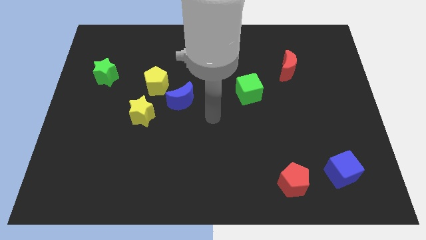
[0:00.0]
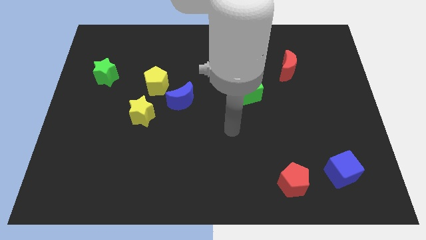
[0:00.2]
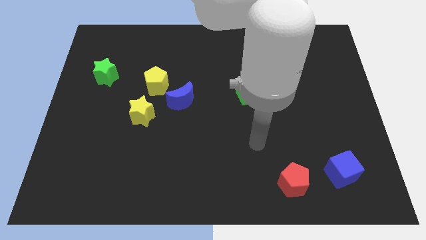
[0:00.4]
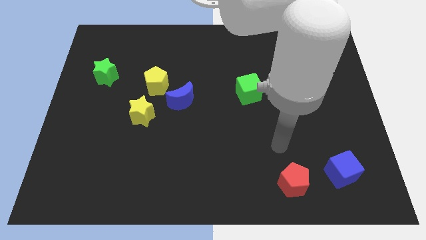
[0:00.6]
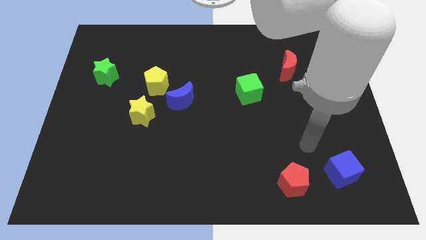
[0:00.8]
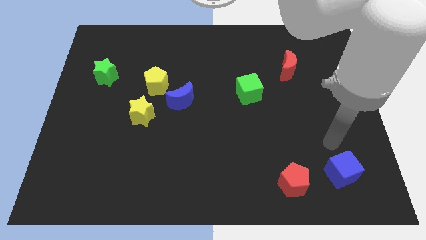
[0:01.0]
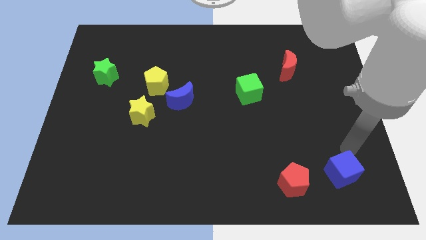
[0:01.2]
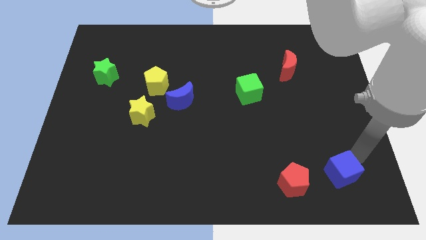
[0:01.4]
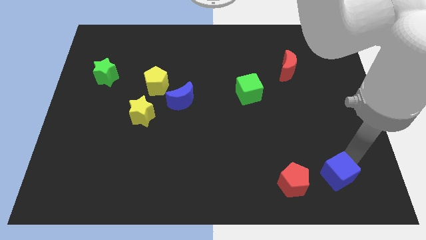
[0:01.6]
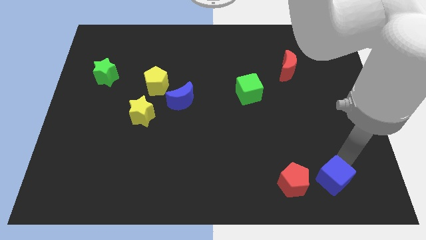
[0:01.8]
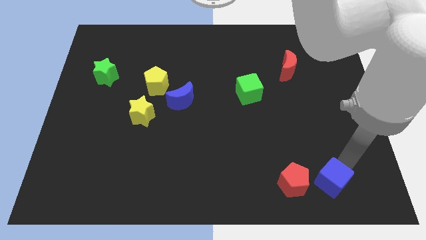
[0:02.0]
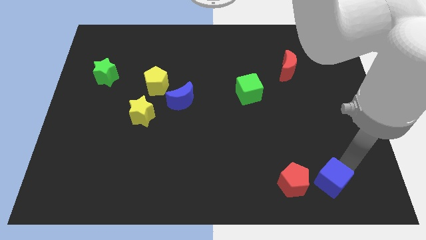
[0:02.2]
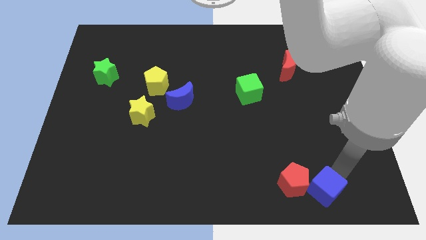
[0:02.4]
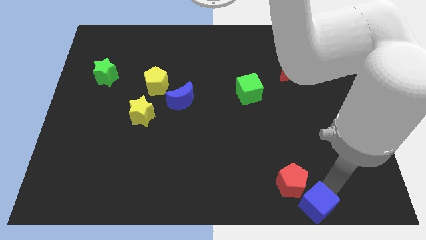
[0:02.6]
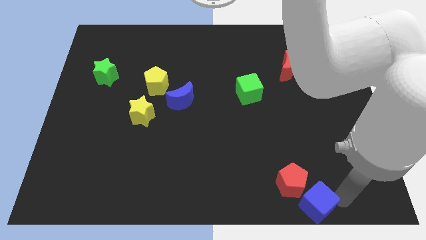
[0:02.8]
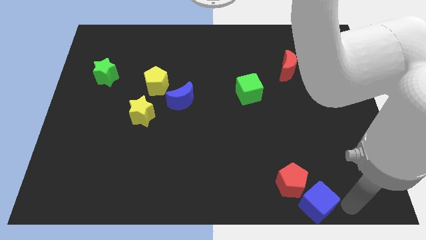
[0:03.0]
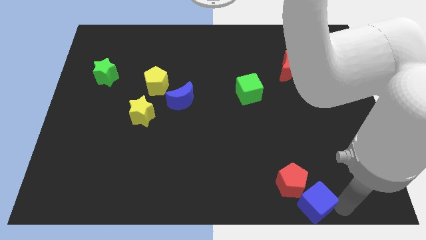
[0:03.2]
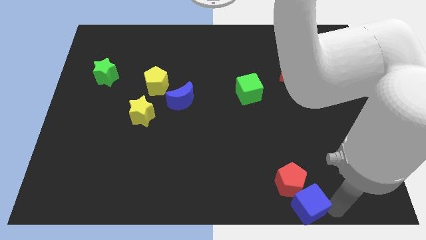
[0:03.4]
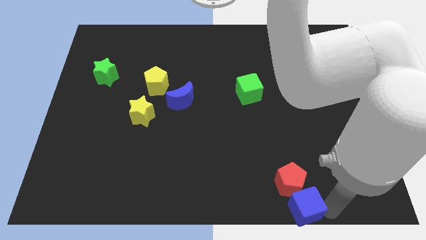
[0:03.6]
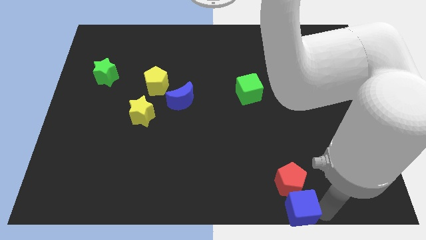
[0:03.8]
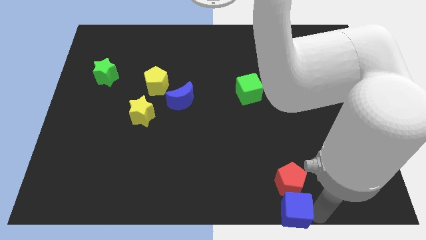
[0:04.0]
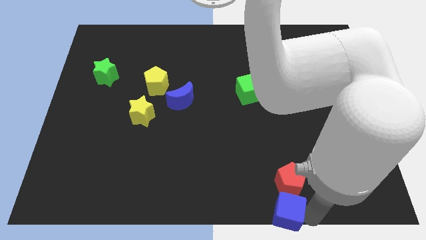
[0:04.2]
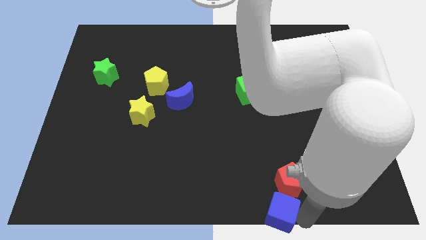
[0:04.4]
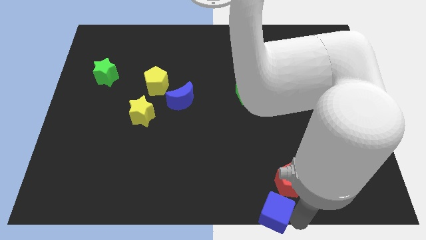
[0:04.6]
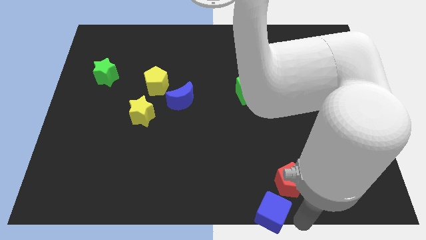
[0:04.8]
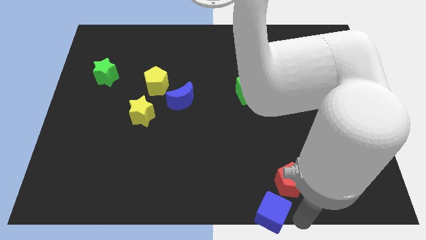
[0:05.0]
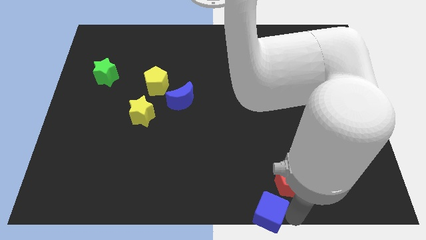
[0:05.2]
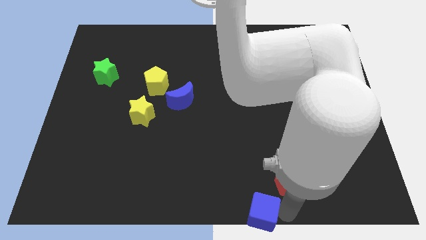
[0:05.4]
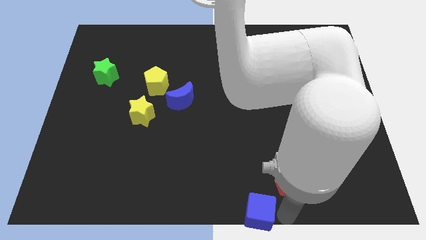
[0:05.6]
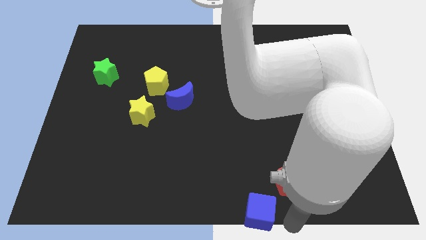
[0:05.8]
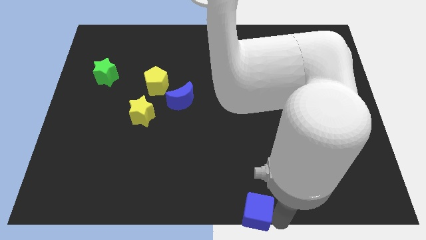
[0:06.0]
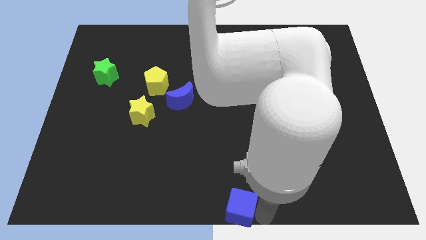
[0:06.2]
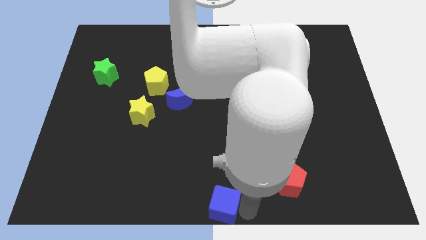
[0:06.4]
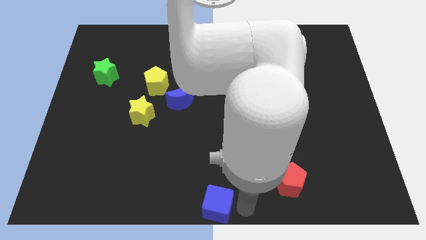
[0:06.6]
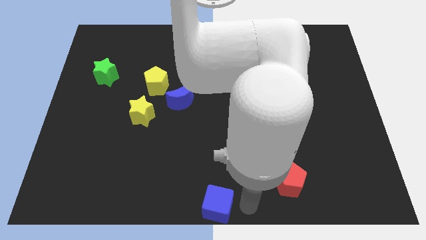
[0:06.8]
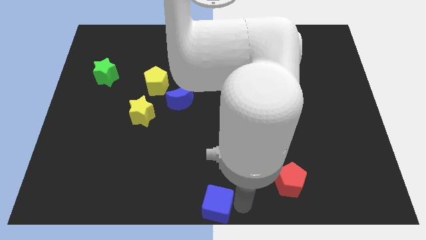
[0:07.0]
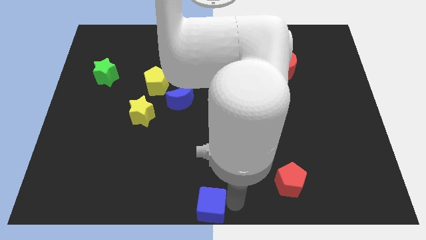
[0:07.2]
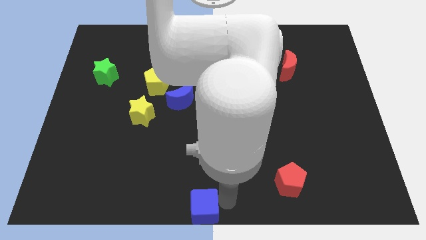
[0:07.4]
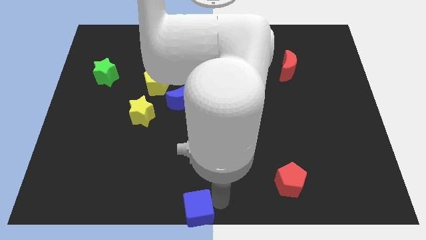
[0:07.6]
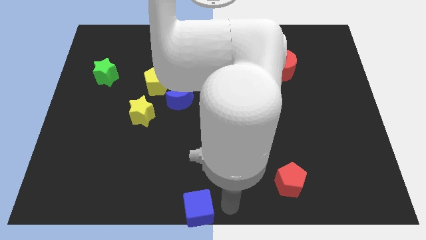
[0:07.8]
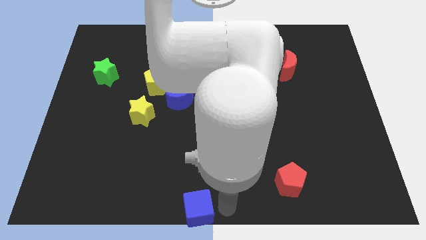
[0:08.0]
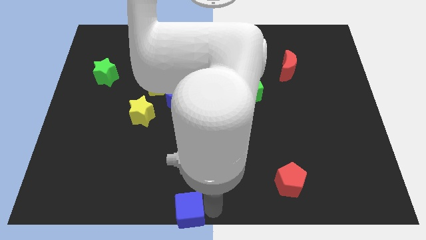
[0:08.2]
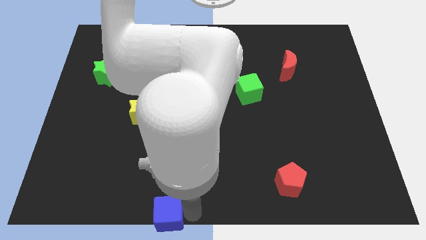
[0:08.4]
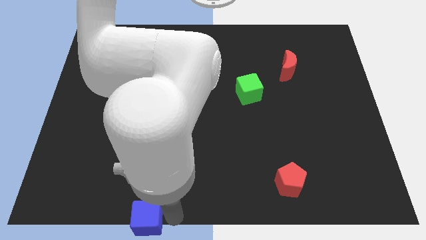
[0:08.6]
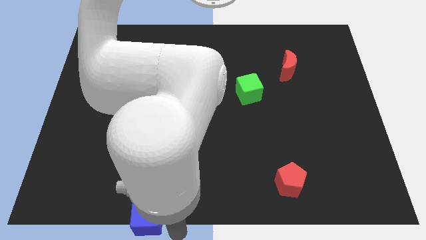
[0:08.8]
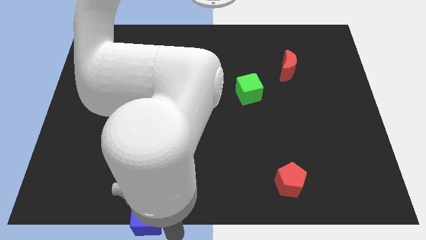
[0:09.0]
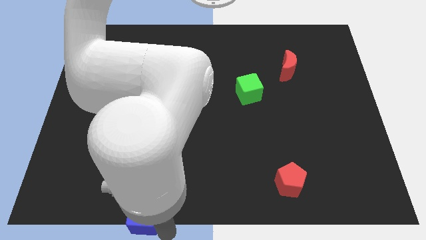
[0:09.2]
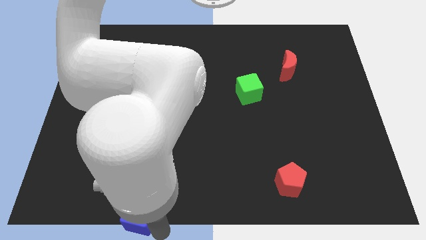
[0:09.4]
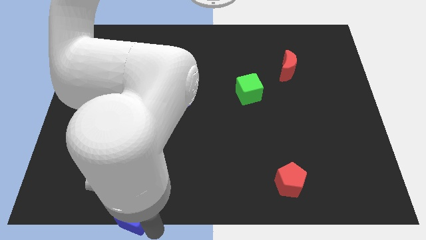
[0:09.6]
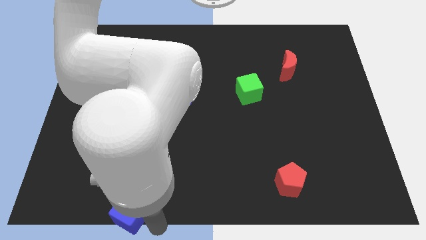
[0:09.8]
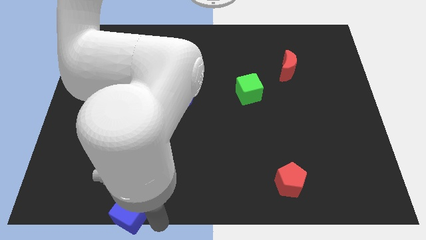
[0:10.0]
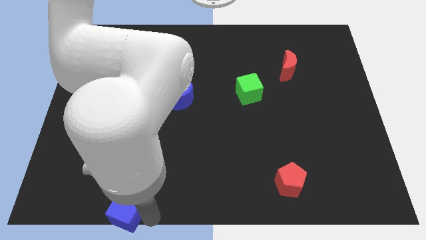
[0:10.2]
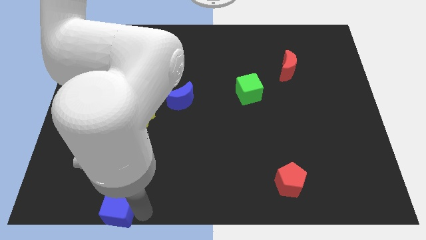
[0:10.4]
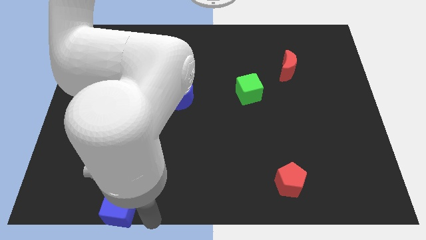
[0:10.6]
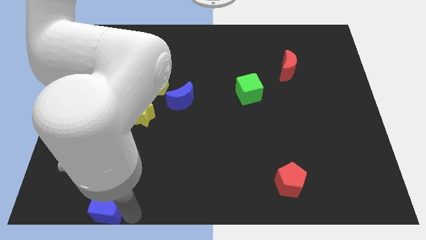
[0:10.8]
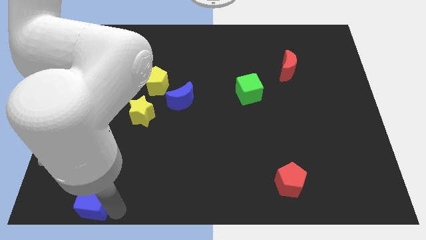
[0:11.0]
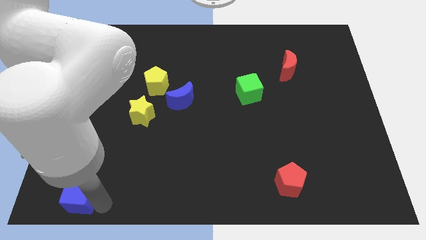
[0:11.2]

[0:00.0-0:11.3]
push the blue cube to the bottom left of the board

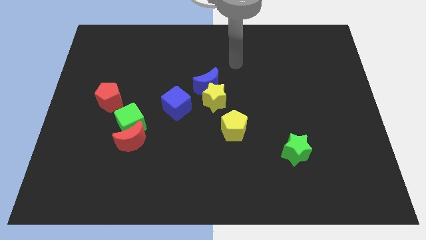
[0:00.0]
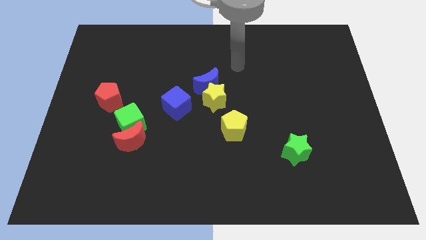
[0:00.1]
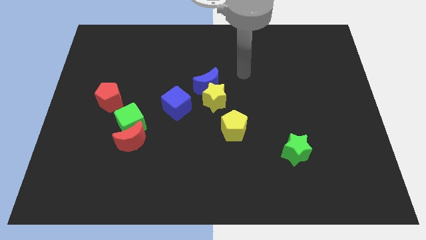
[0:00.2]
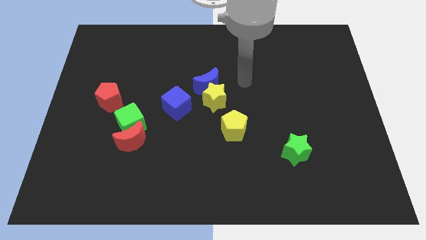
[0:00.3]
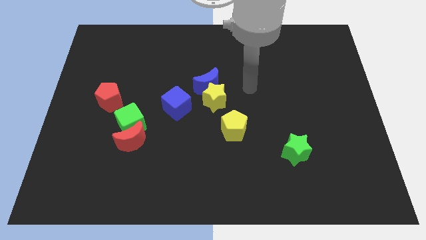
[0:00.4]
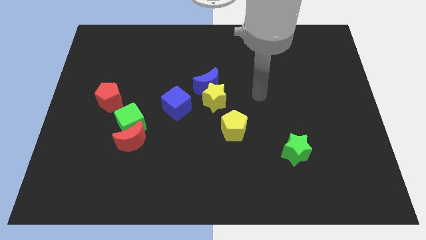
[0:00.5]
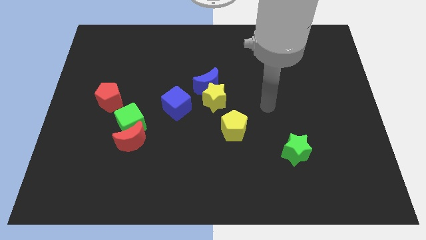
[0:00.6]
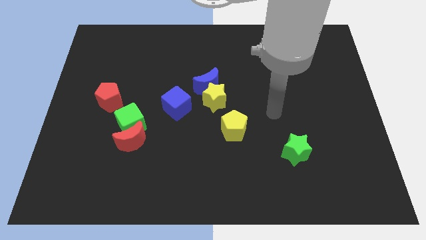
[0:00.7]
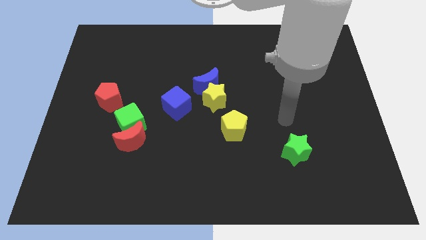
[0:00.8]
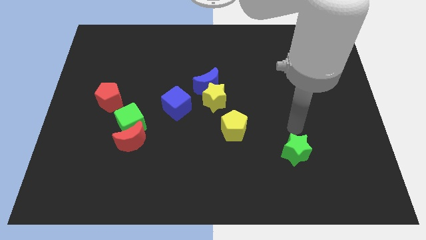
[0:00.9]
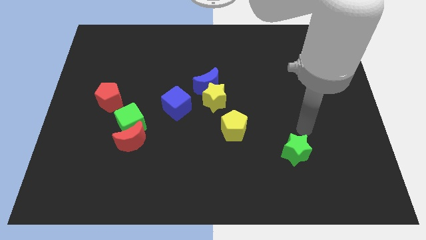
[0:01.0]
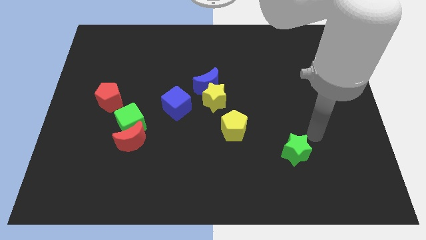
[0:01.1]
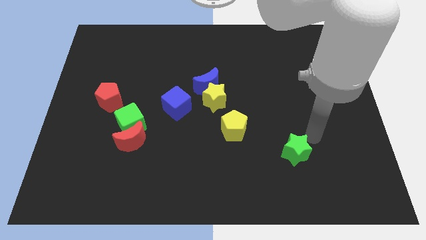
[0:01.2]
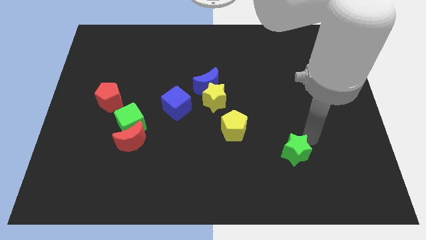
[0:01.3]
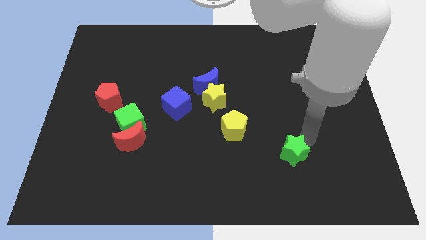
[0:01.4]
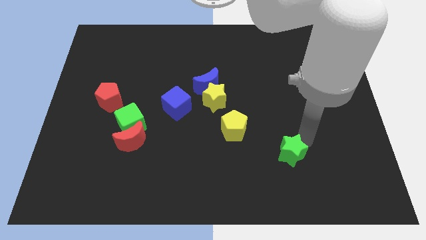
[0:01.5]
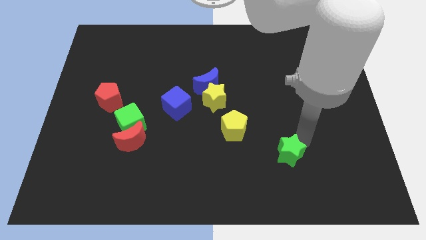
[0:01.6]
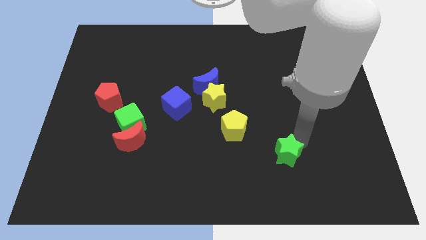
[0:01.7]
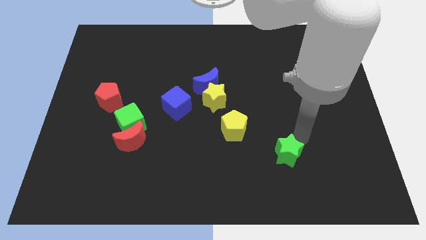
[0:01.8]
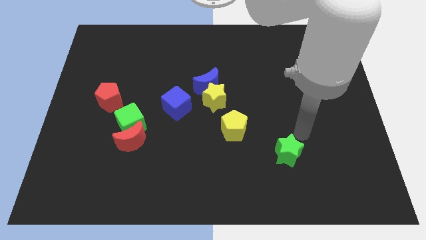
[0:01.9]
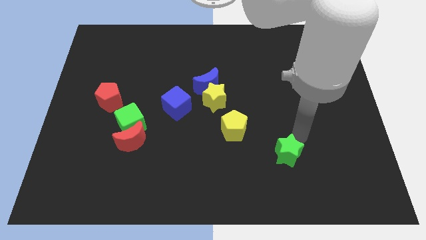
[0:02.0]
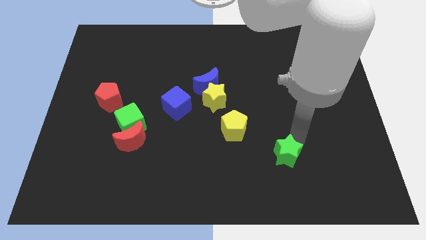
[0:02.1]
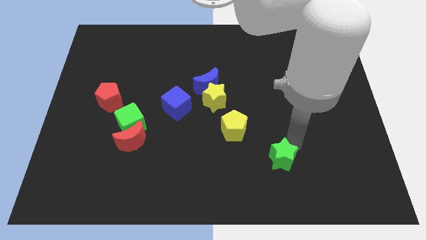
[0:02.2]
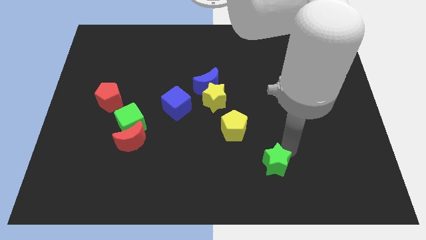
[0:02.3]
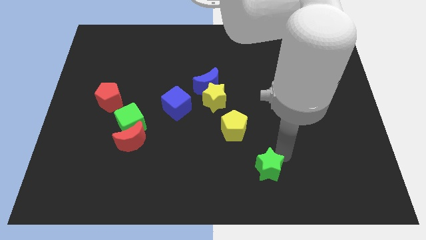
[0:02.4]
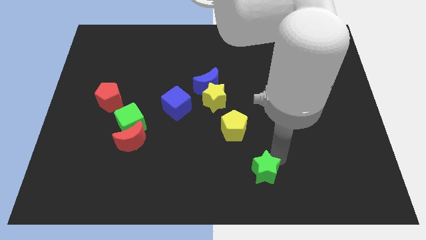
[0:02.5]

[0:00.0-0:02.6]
push the green star to the bottom side
